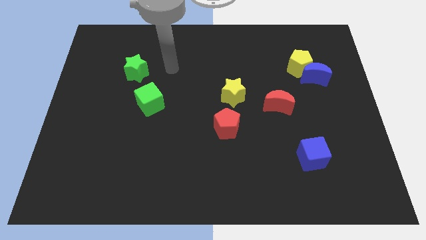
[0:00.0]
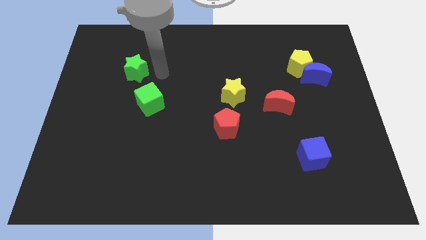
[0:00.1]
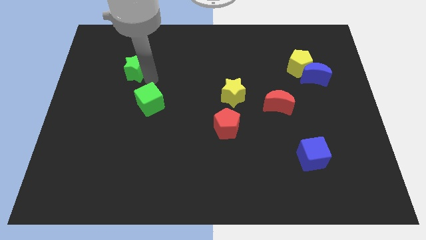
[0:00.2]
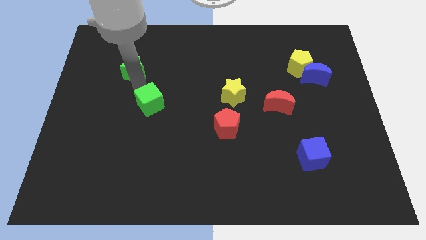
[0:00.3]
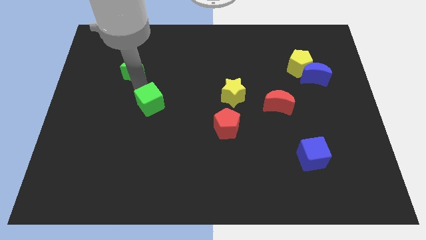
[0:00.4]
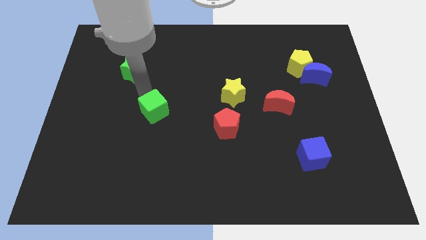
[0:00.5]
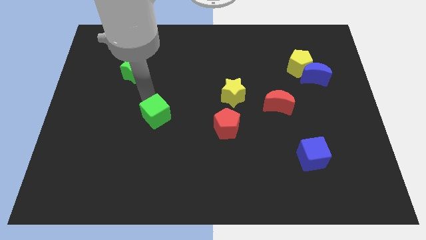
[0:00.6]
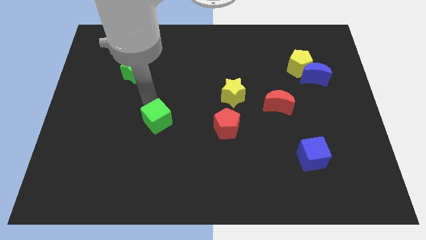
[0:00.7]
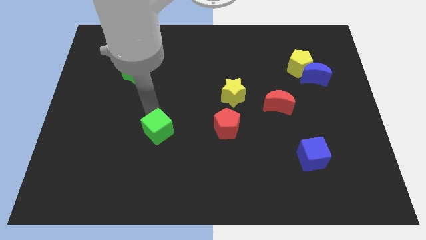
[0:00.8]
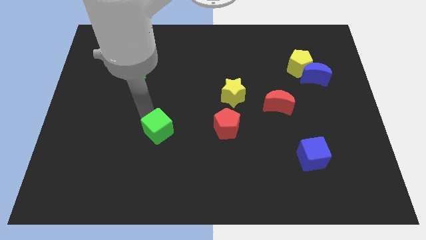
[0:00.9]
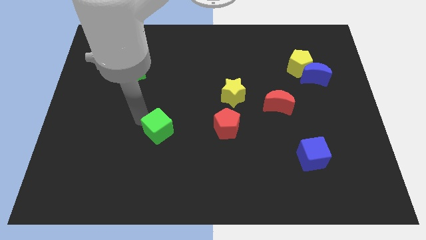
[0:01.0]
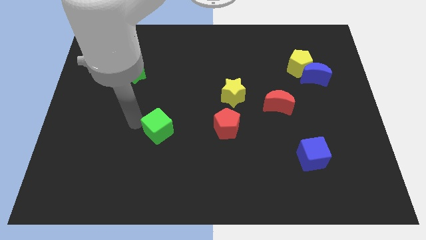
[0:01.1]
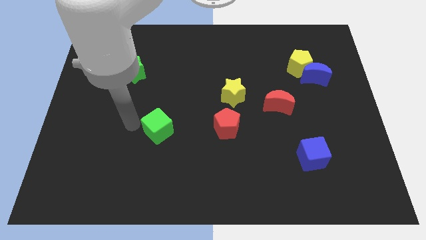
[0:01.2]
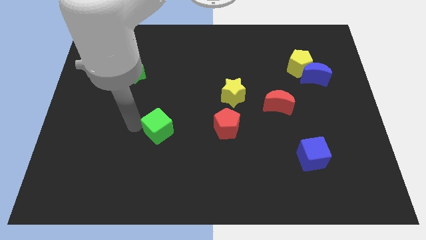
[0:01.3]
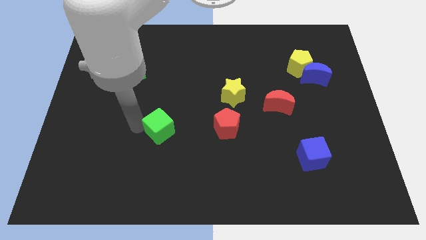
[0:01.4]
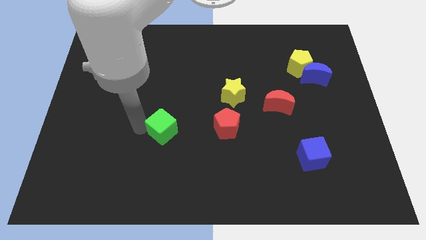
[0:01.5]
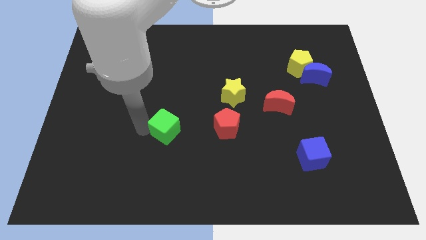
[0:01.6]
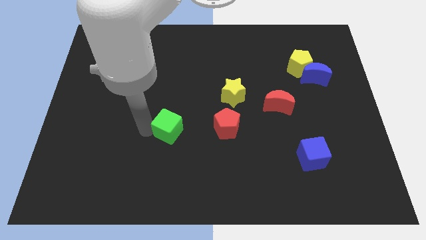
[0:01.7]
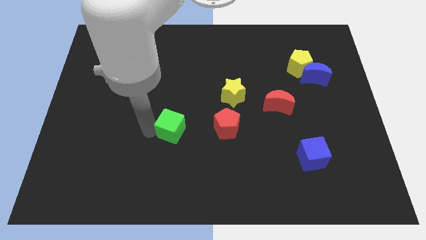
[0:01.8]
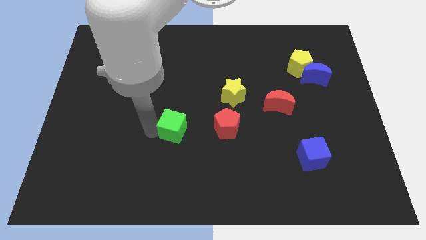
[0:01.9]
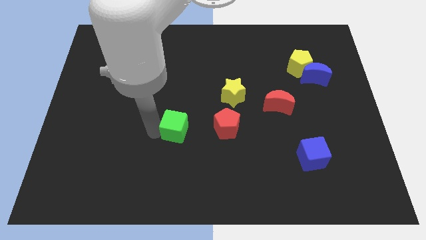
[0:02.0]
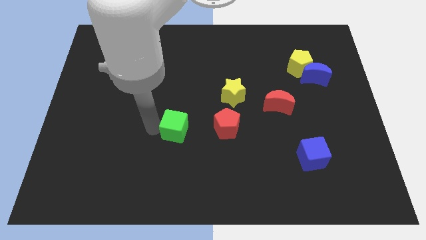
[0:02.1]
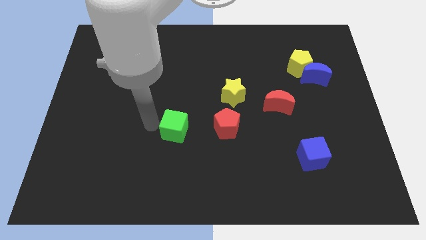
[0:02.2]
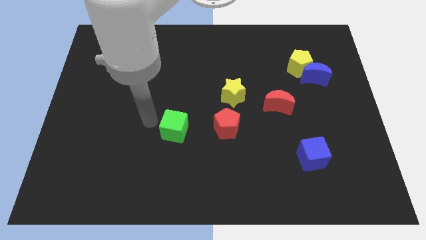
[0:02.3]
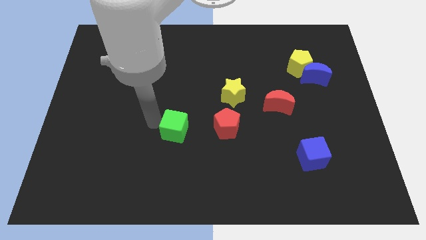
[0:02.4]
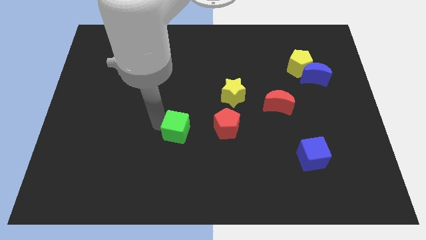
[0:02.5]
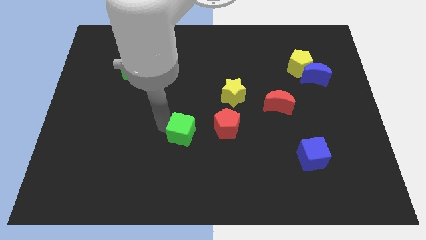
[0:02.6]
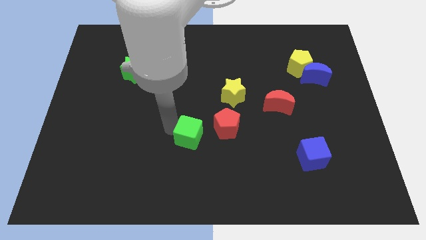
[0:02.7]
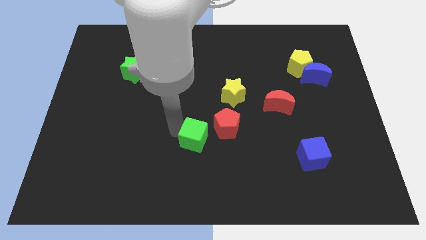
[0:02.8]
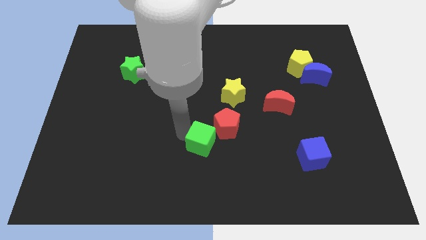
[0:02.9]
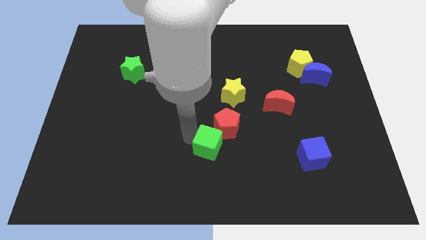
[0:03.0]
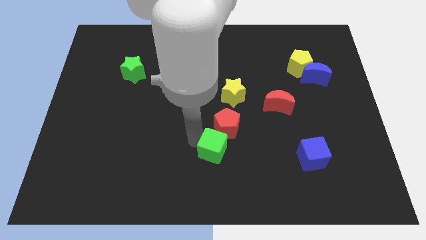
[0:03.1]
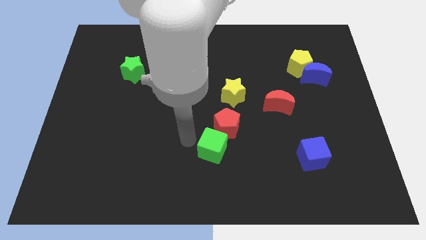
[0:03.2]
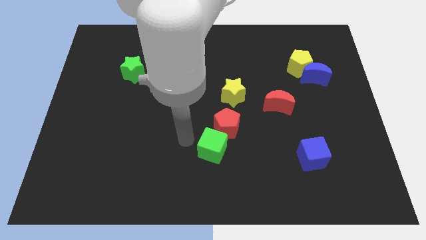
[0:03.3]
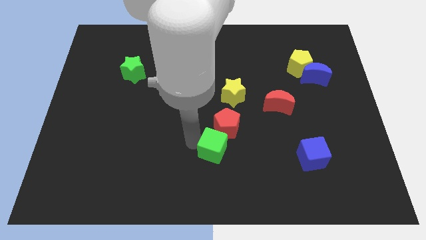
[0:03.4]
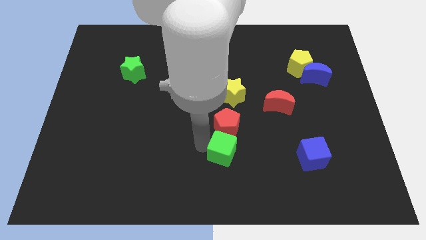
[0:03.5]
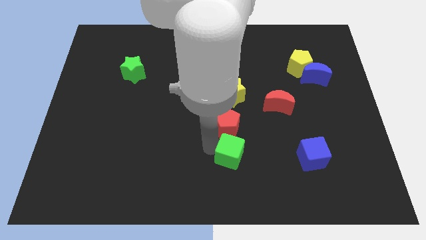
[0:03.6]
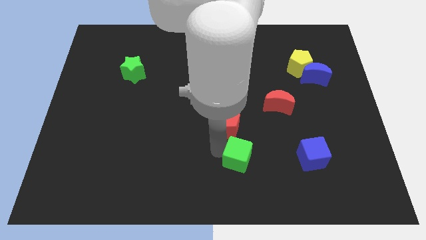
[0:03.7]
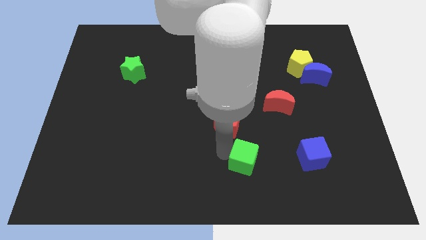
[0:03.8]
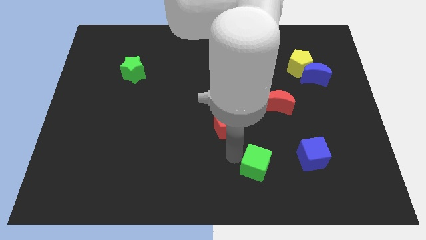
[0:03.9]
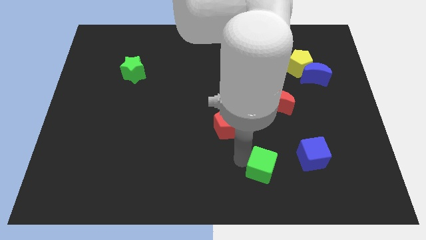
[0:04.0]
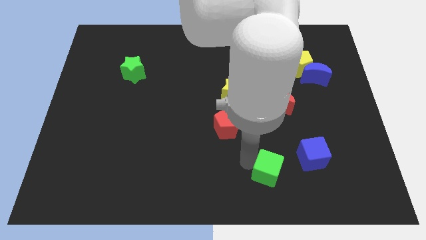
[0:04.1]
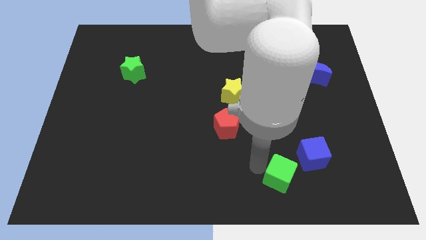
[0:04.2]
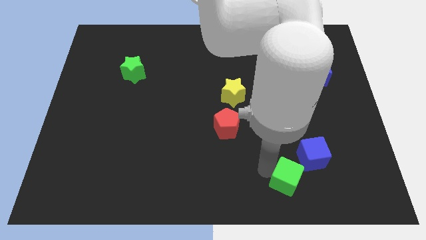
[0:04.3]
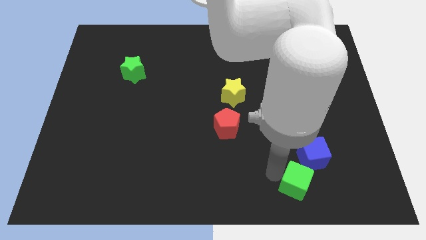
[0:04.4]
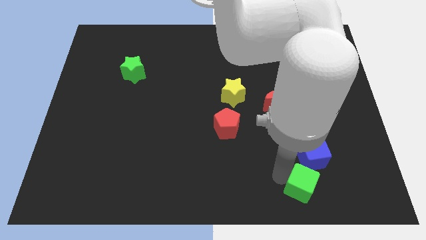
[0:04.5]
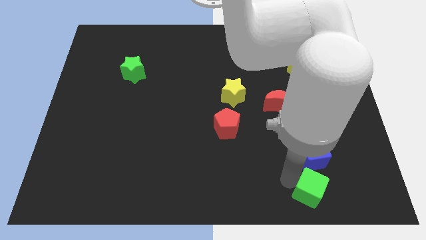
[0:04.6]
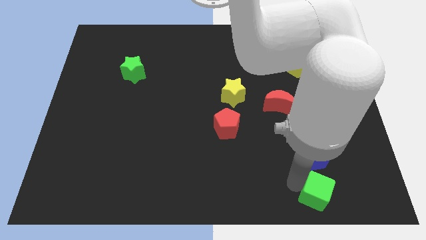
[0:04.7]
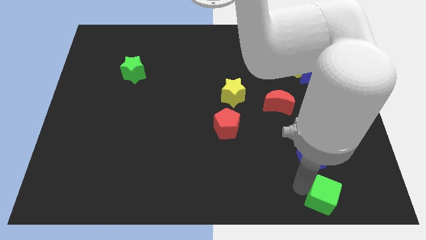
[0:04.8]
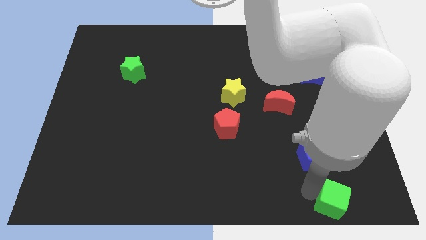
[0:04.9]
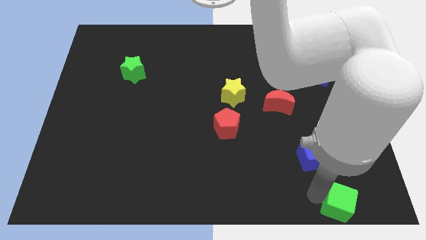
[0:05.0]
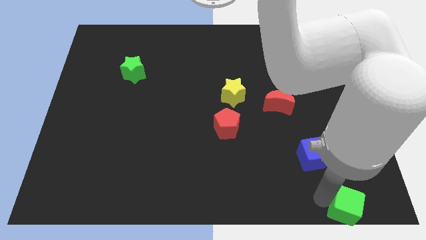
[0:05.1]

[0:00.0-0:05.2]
push the green cube to the bottom right corner

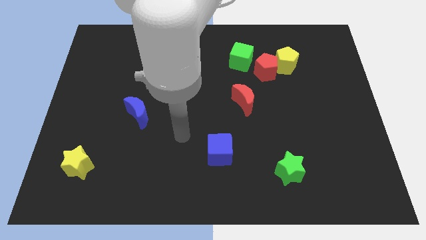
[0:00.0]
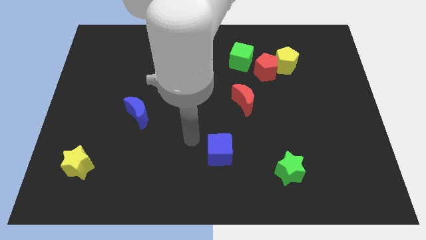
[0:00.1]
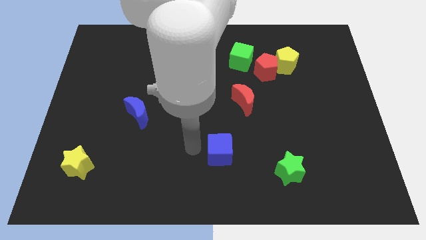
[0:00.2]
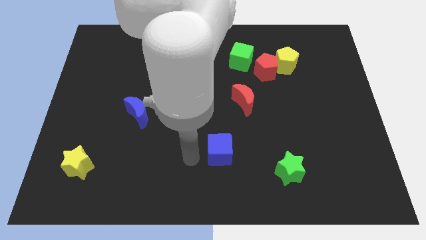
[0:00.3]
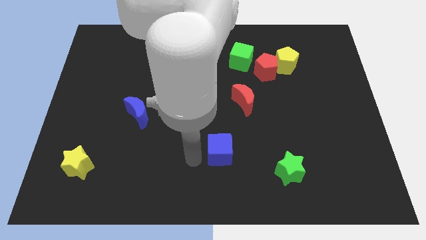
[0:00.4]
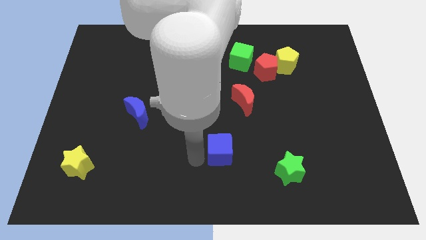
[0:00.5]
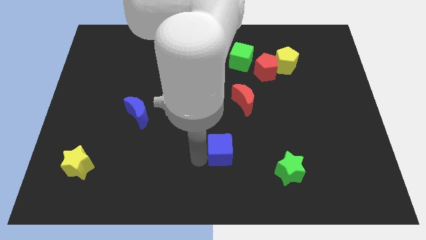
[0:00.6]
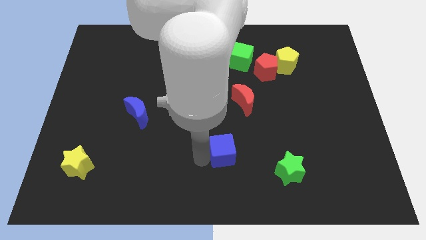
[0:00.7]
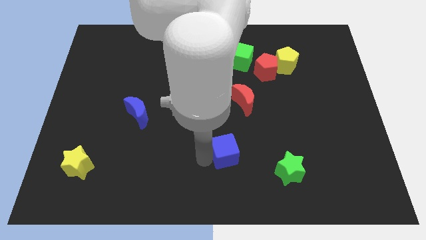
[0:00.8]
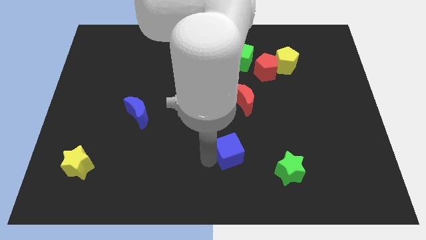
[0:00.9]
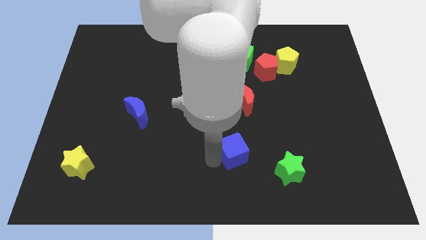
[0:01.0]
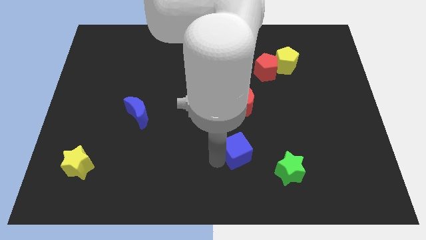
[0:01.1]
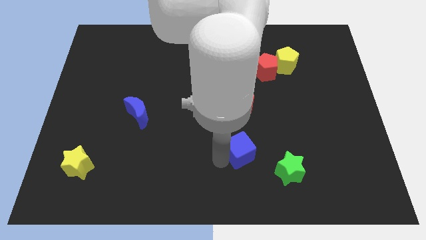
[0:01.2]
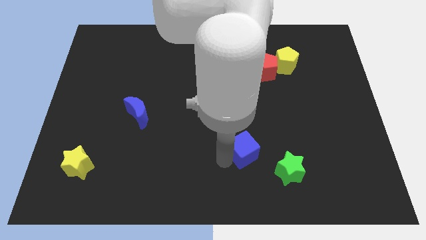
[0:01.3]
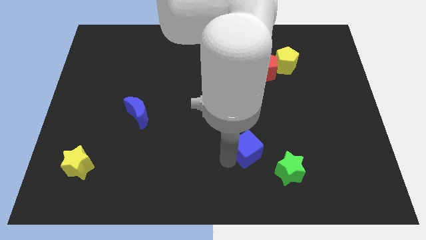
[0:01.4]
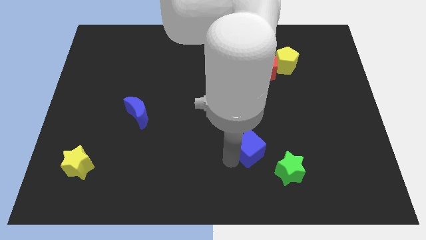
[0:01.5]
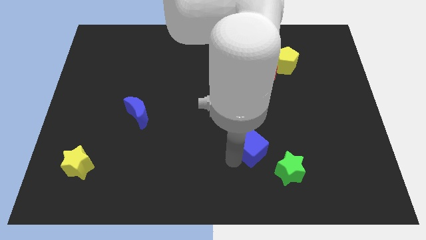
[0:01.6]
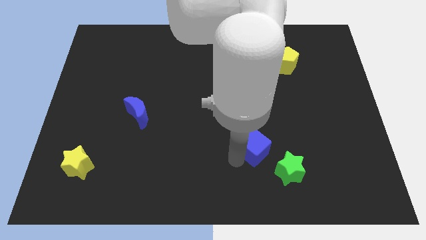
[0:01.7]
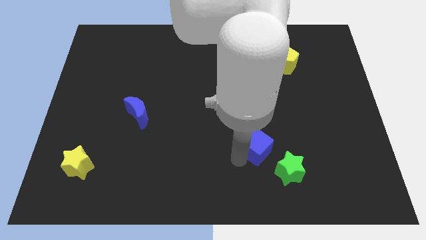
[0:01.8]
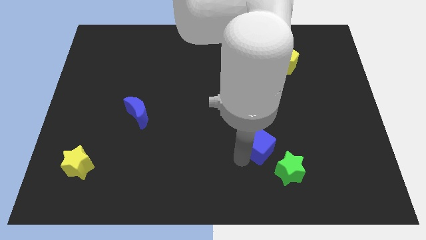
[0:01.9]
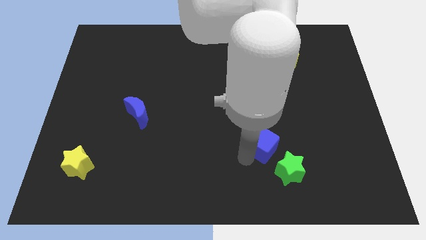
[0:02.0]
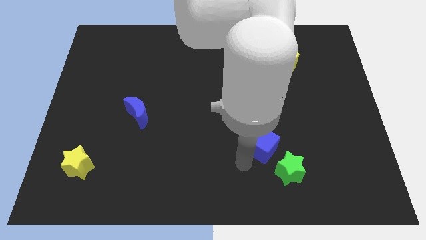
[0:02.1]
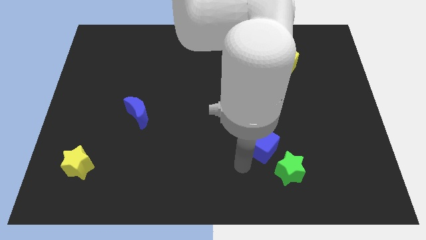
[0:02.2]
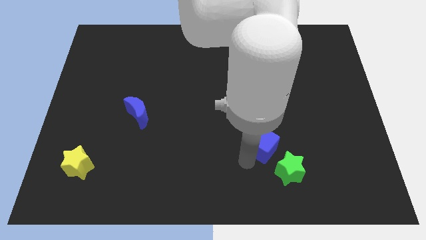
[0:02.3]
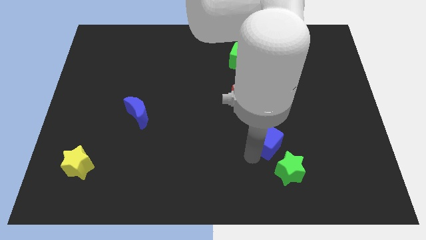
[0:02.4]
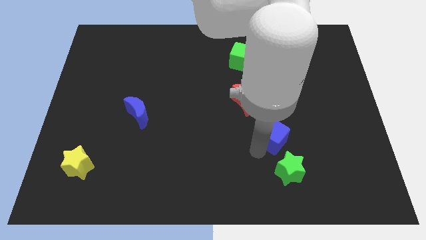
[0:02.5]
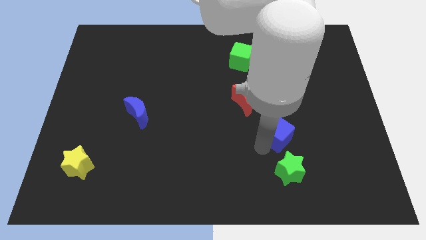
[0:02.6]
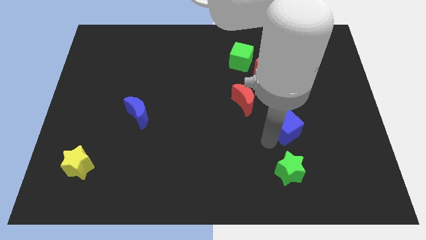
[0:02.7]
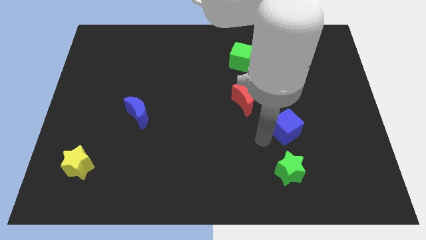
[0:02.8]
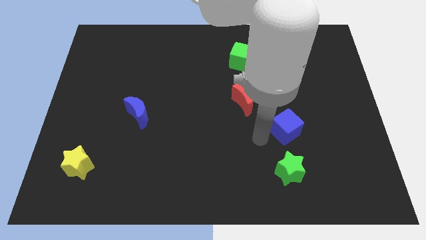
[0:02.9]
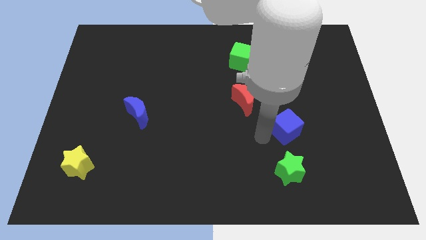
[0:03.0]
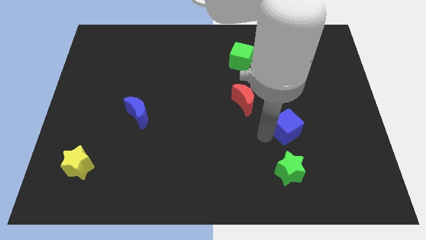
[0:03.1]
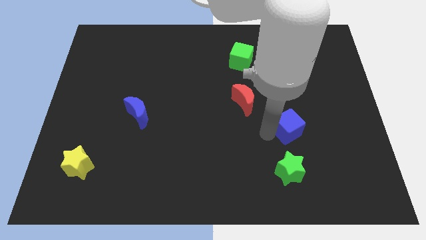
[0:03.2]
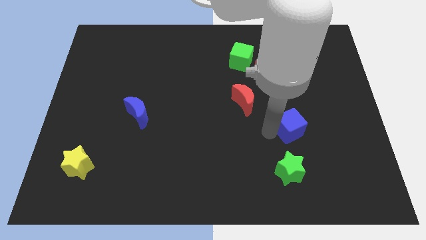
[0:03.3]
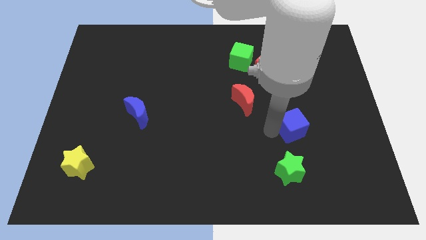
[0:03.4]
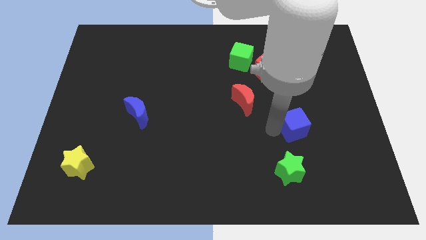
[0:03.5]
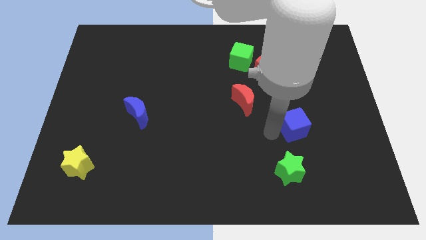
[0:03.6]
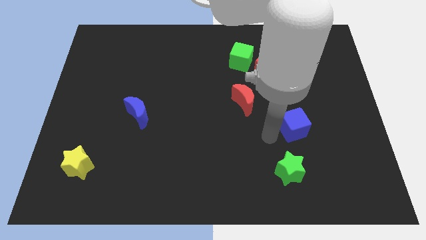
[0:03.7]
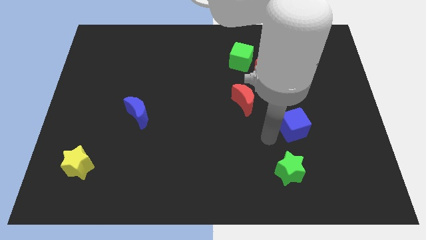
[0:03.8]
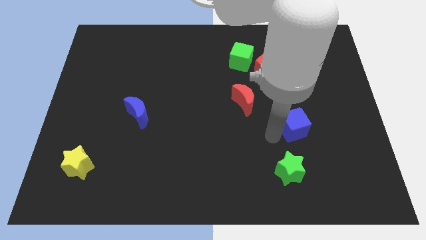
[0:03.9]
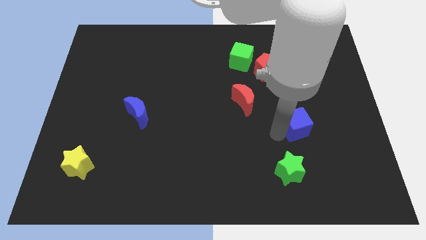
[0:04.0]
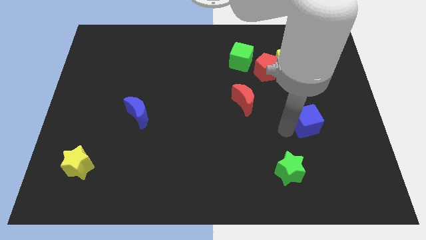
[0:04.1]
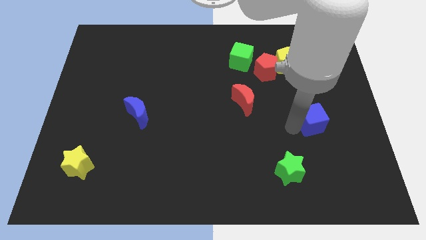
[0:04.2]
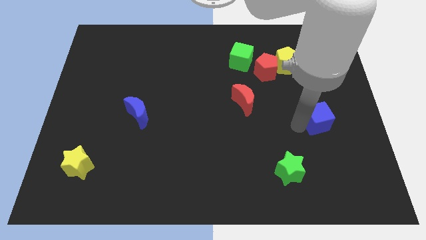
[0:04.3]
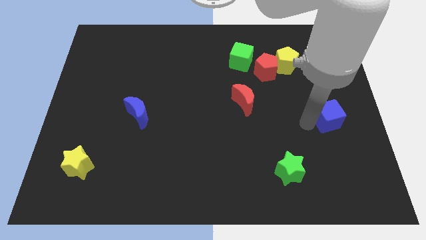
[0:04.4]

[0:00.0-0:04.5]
move the blue cube to the right side
